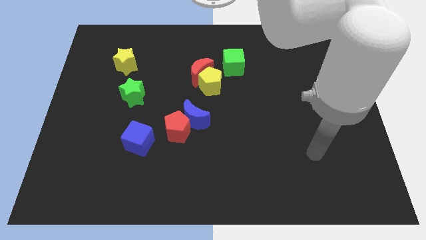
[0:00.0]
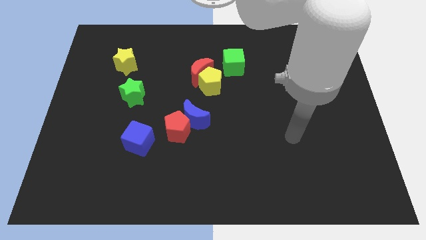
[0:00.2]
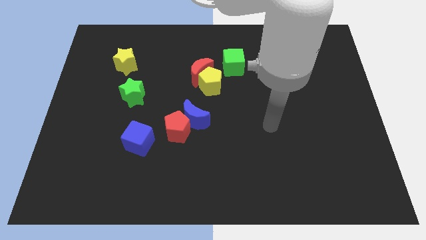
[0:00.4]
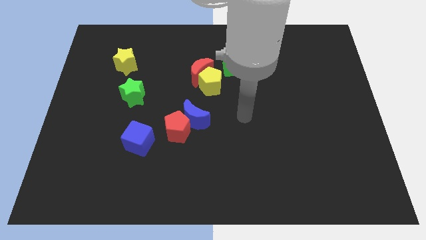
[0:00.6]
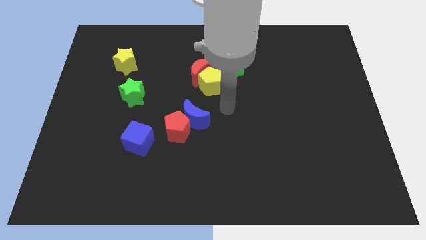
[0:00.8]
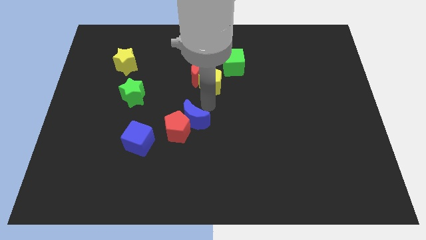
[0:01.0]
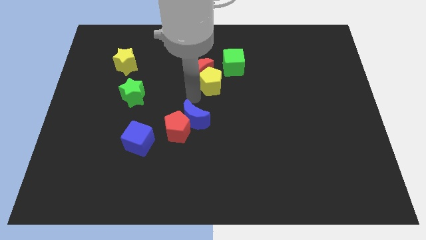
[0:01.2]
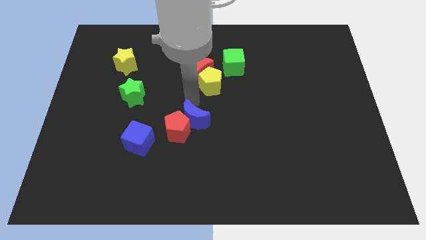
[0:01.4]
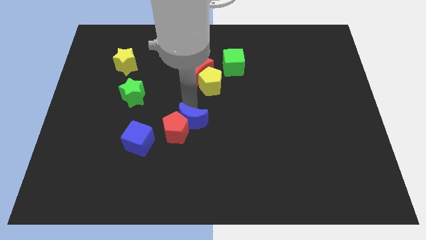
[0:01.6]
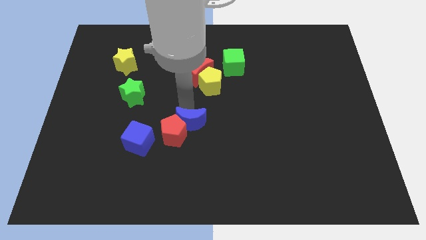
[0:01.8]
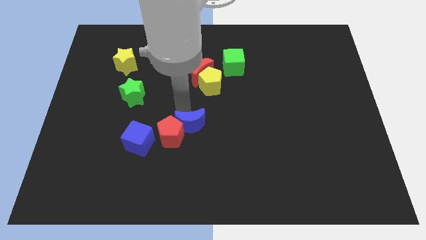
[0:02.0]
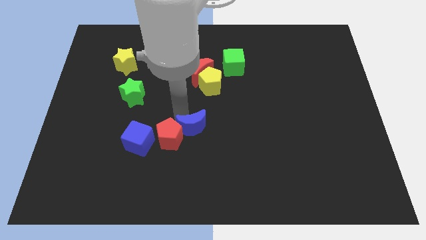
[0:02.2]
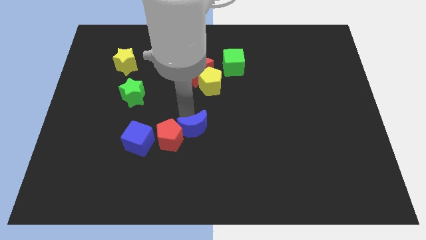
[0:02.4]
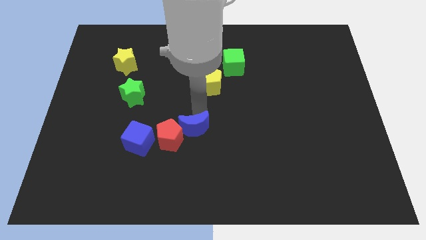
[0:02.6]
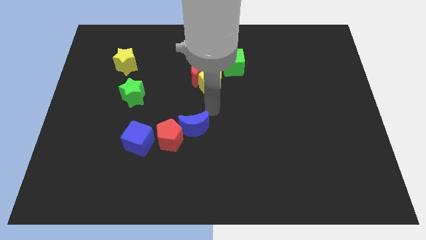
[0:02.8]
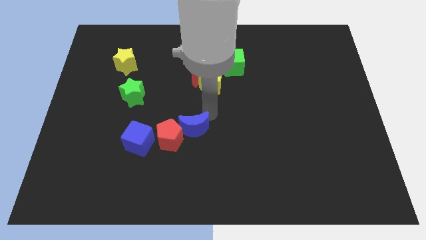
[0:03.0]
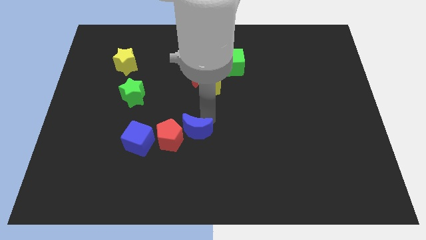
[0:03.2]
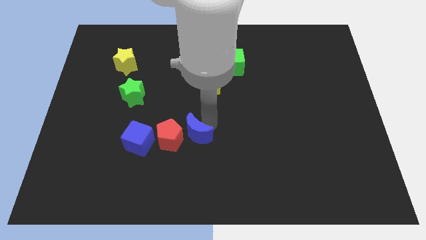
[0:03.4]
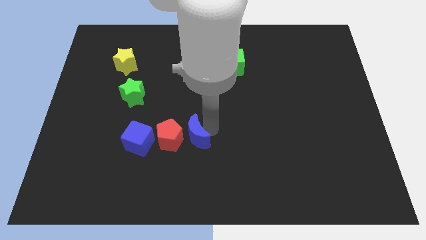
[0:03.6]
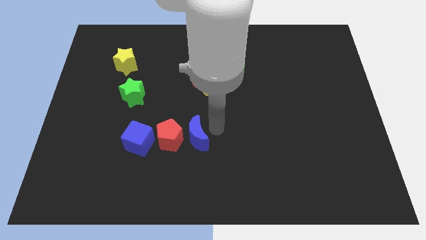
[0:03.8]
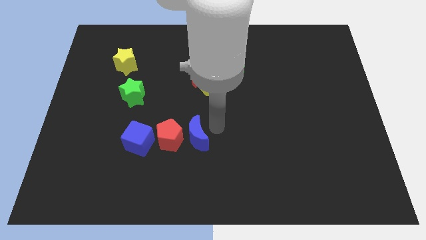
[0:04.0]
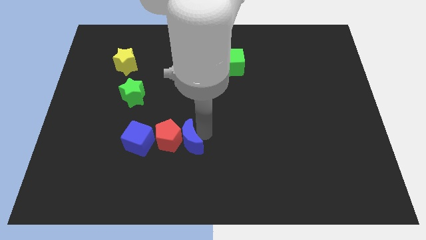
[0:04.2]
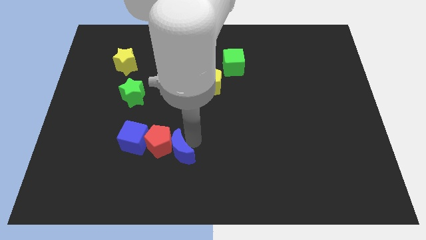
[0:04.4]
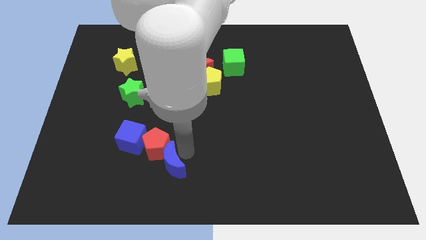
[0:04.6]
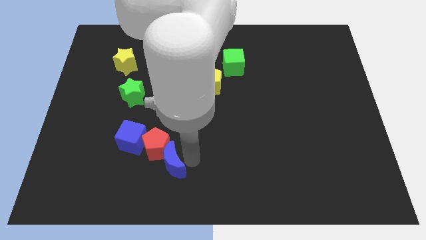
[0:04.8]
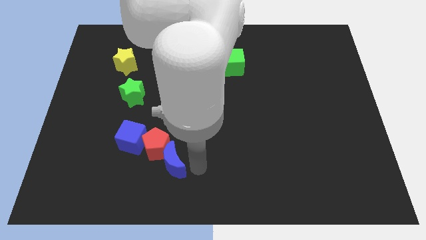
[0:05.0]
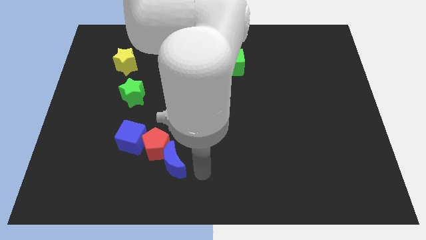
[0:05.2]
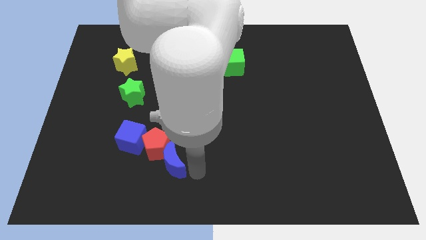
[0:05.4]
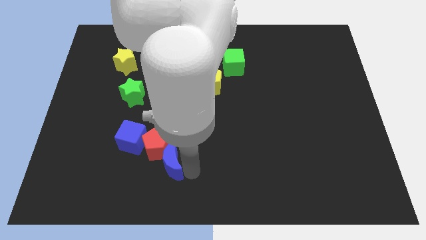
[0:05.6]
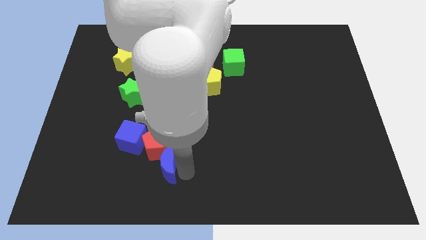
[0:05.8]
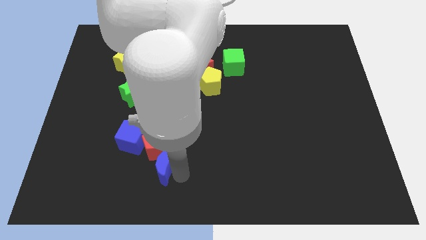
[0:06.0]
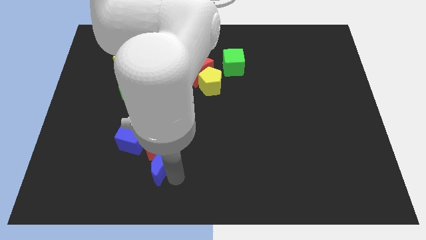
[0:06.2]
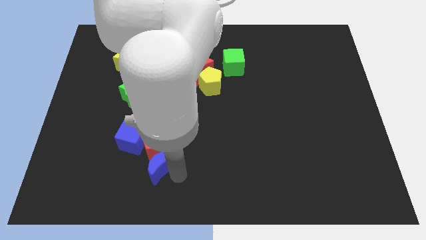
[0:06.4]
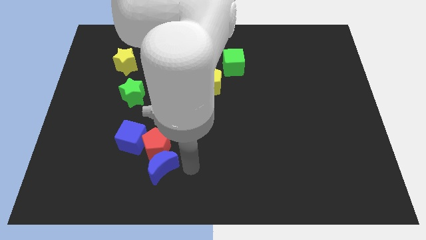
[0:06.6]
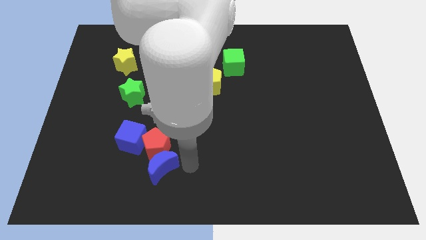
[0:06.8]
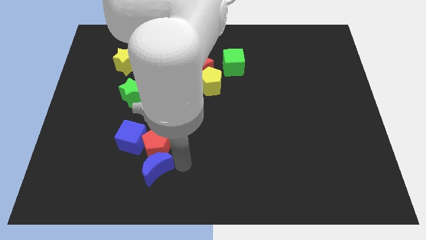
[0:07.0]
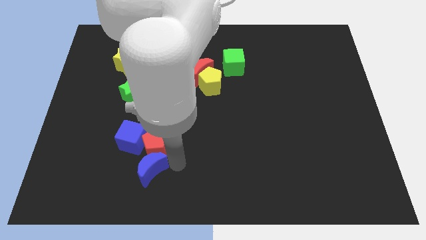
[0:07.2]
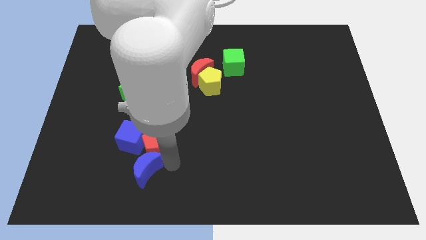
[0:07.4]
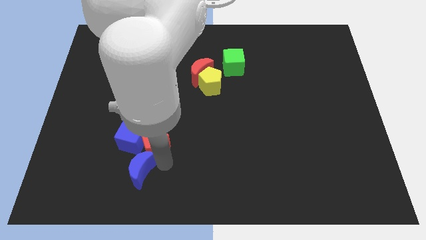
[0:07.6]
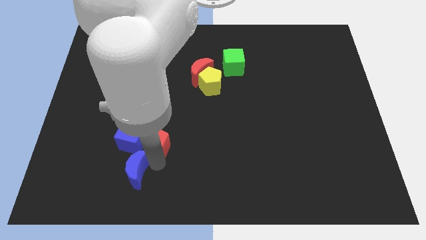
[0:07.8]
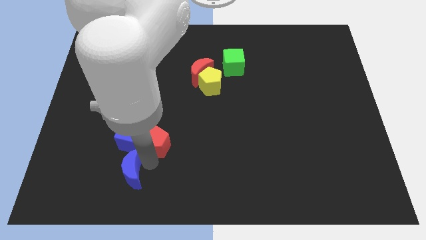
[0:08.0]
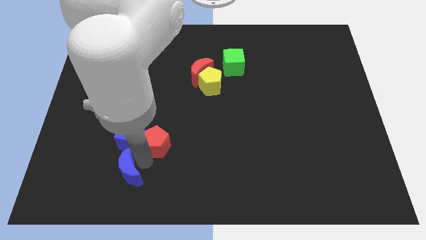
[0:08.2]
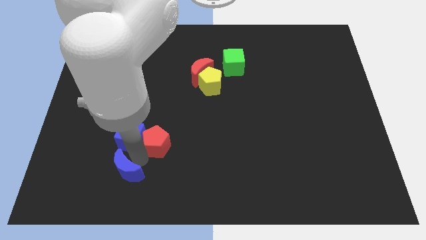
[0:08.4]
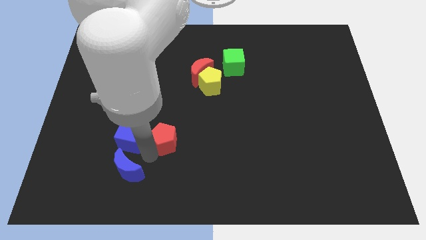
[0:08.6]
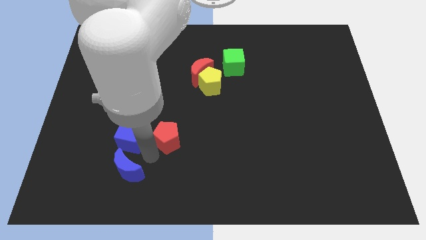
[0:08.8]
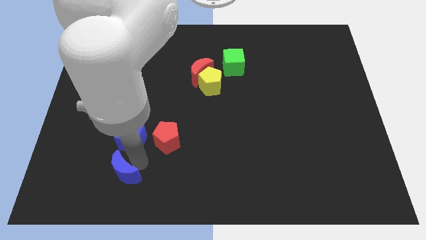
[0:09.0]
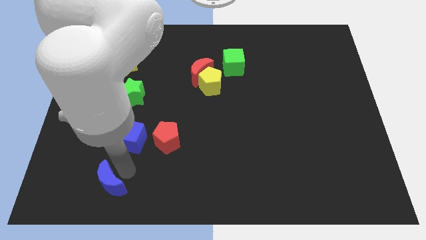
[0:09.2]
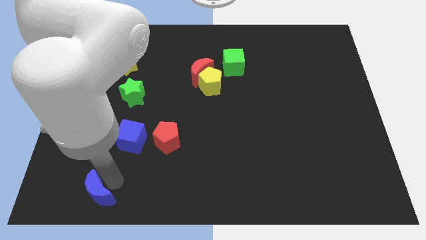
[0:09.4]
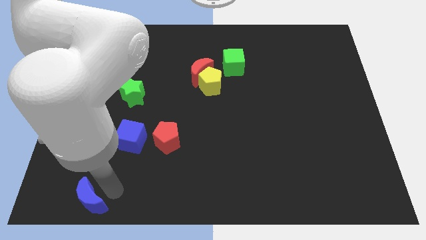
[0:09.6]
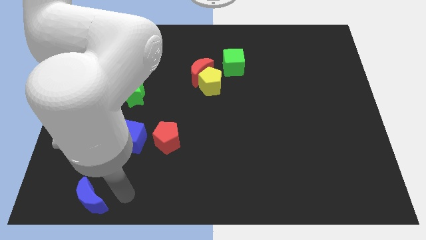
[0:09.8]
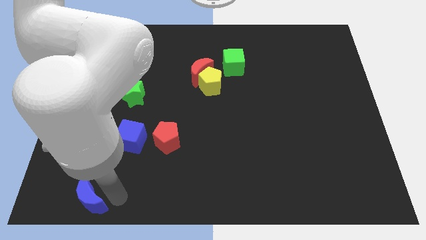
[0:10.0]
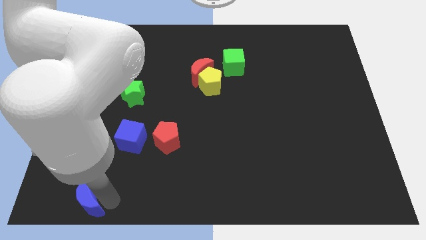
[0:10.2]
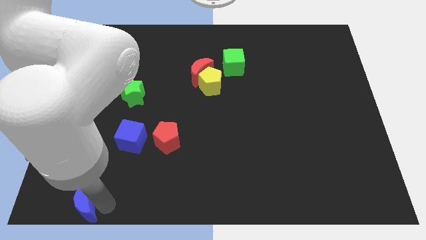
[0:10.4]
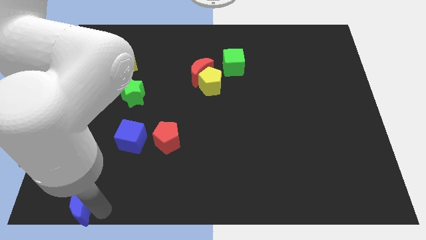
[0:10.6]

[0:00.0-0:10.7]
push the blue moon to the bottom left of the board

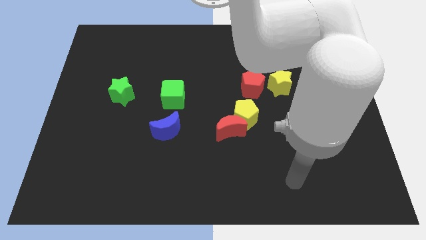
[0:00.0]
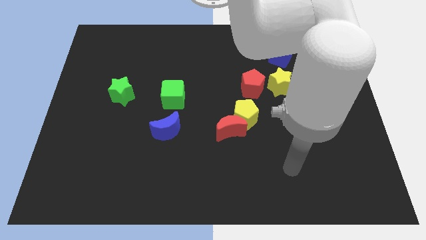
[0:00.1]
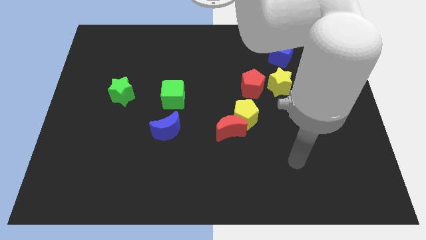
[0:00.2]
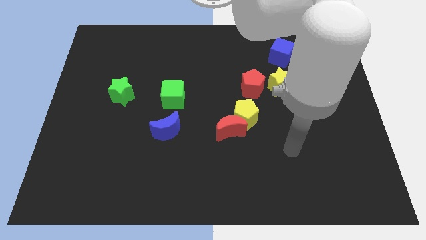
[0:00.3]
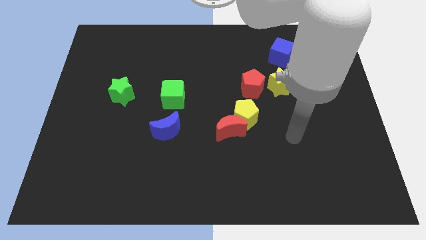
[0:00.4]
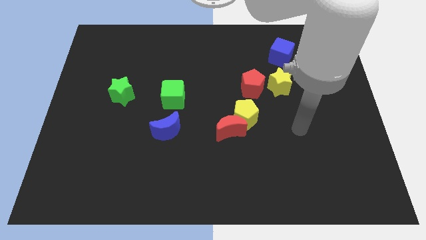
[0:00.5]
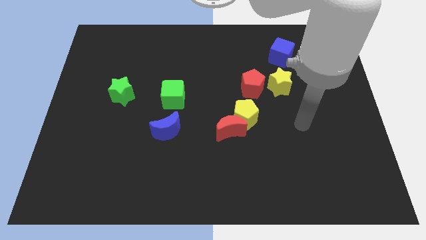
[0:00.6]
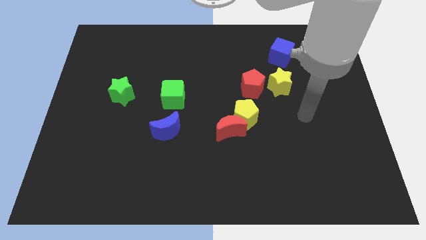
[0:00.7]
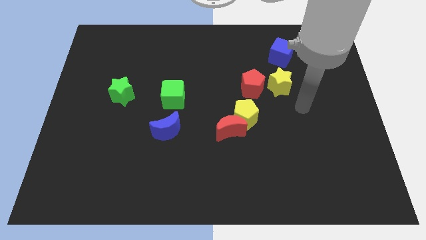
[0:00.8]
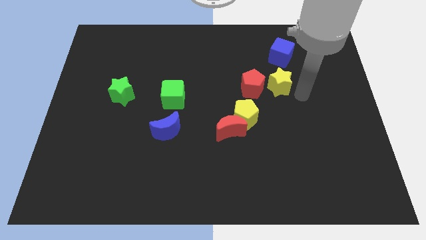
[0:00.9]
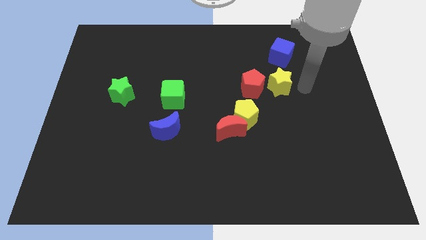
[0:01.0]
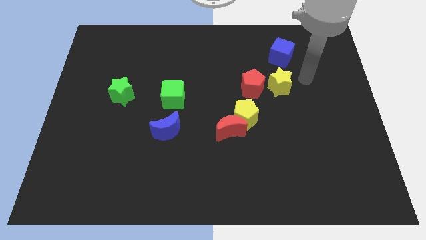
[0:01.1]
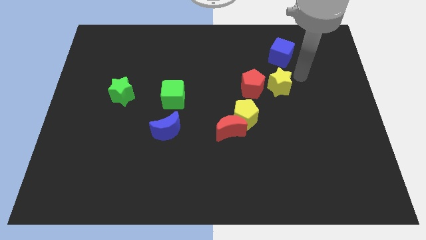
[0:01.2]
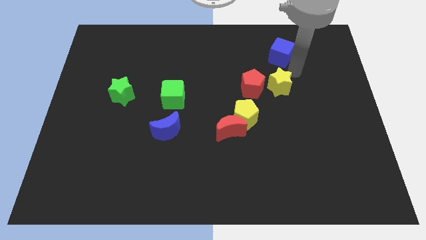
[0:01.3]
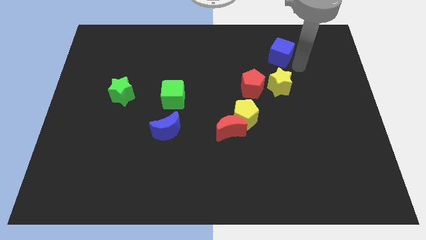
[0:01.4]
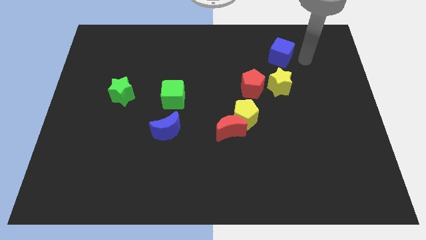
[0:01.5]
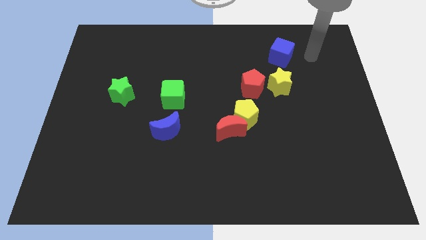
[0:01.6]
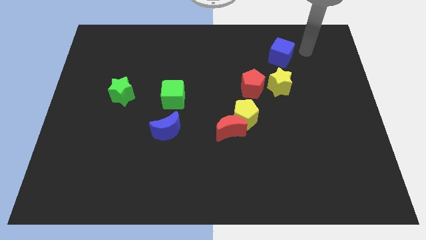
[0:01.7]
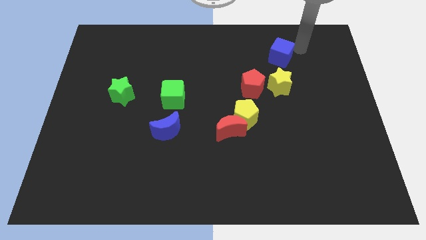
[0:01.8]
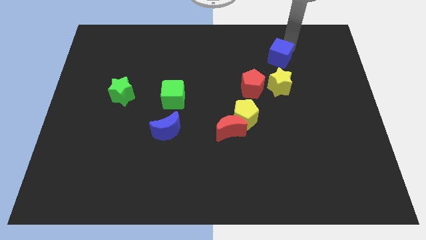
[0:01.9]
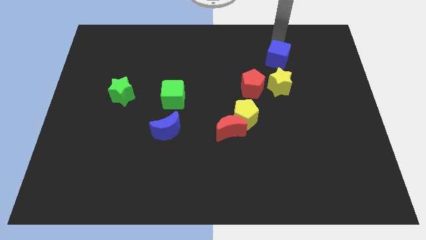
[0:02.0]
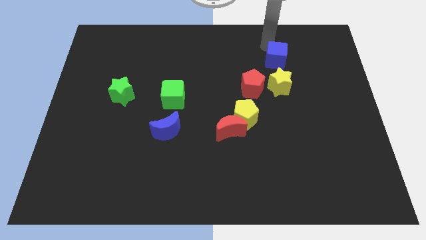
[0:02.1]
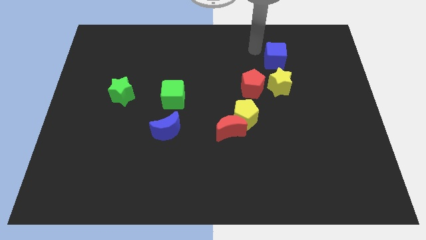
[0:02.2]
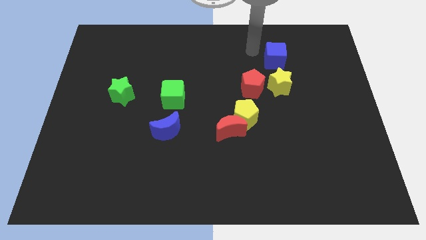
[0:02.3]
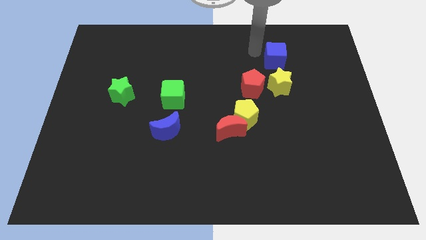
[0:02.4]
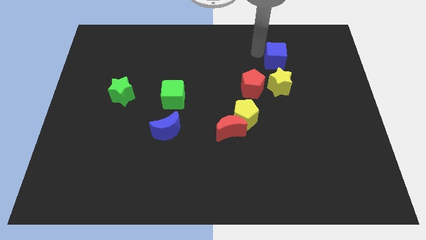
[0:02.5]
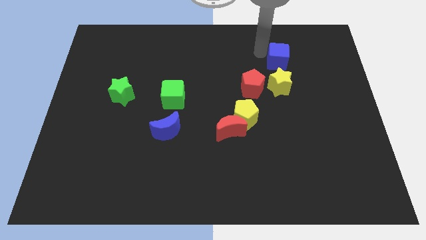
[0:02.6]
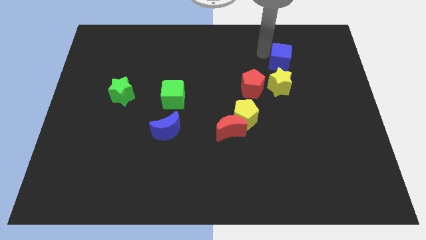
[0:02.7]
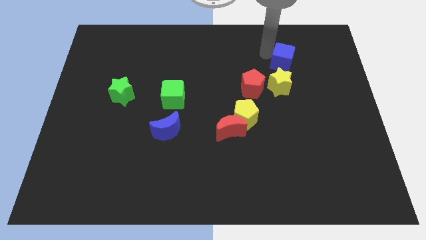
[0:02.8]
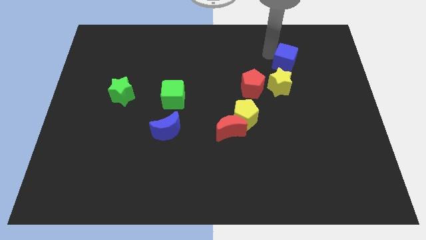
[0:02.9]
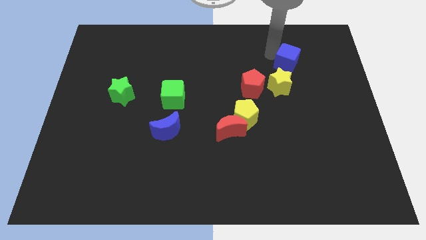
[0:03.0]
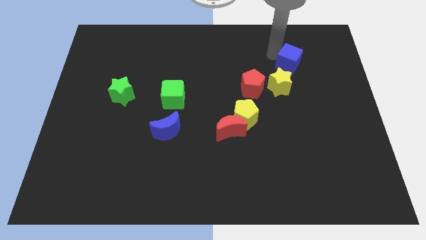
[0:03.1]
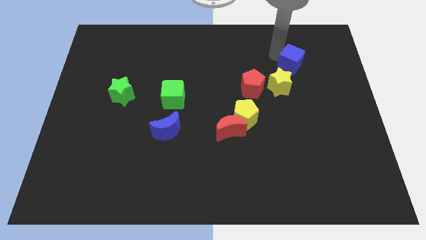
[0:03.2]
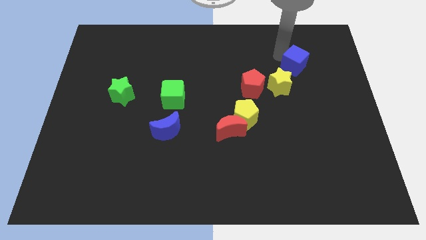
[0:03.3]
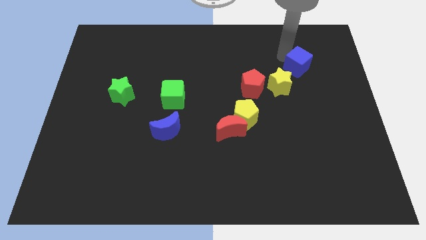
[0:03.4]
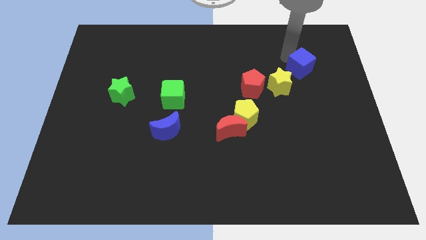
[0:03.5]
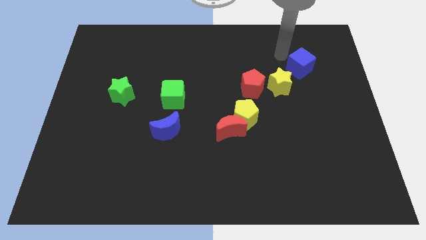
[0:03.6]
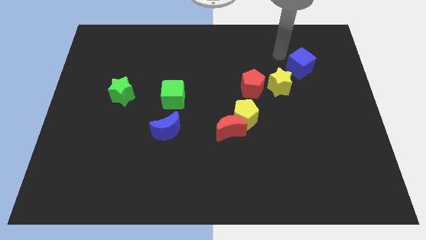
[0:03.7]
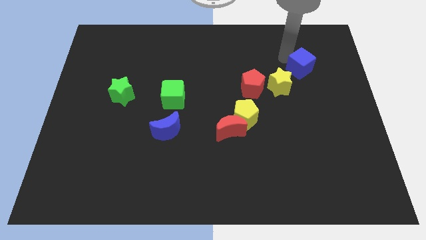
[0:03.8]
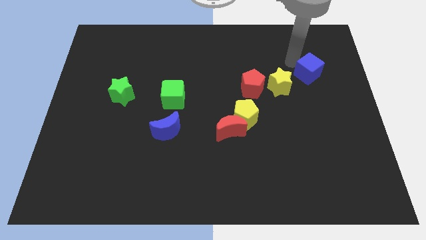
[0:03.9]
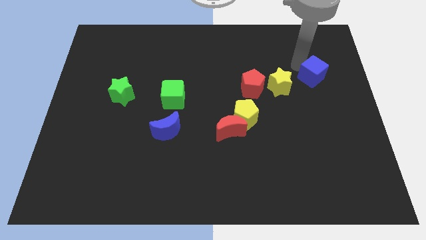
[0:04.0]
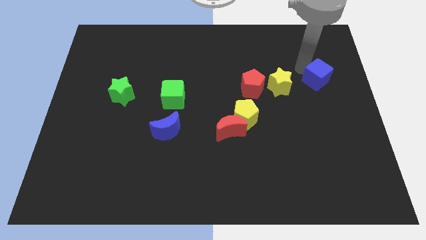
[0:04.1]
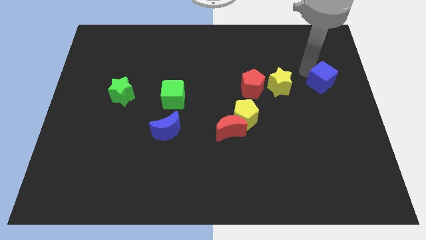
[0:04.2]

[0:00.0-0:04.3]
move the blue cube to the right side of the board
